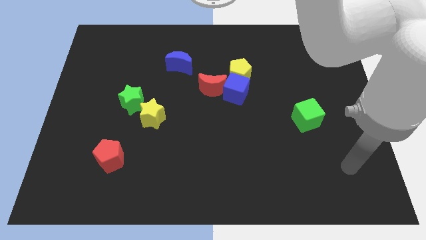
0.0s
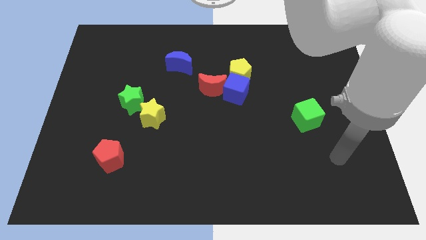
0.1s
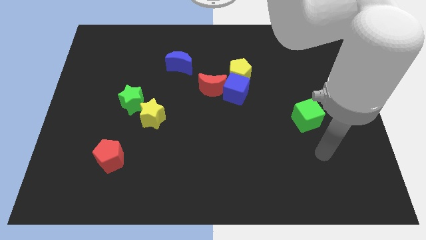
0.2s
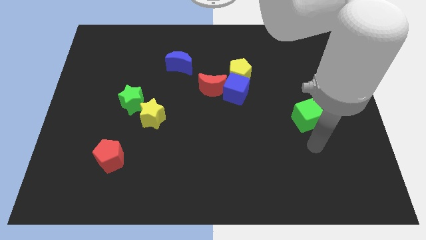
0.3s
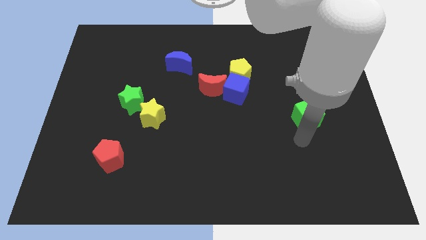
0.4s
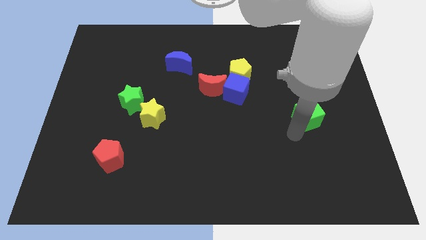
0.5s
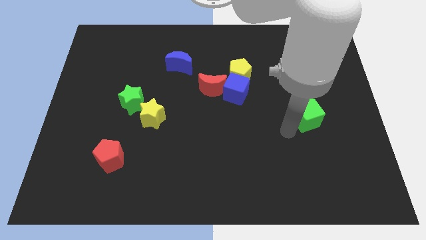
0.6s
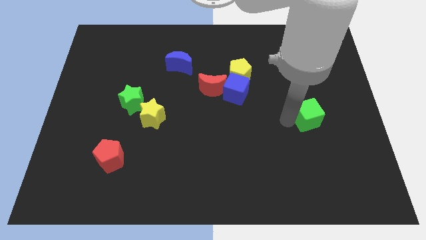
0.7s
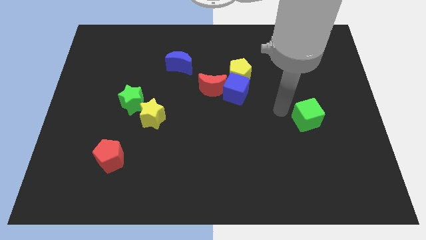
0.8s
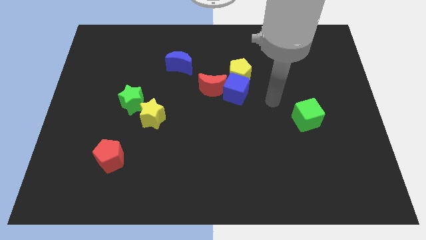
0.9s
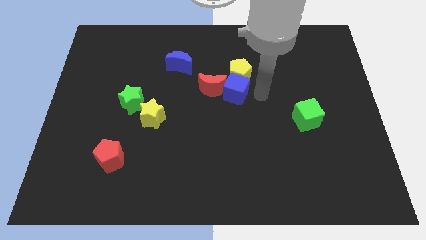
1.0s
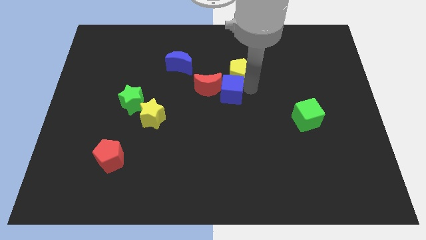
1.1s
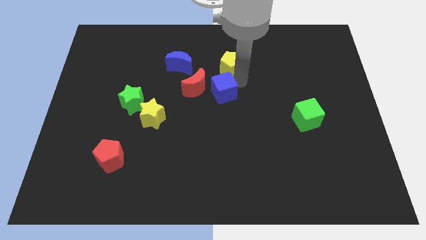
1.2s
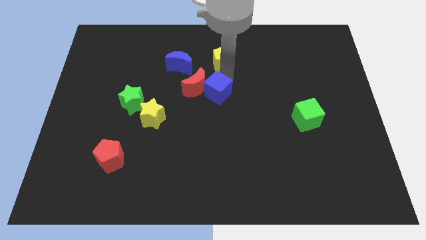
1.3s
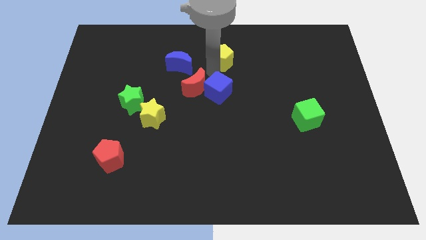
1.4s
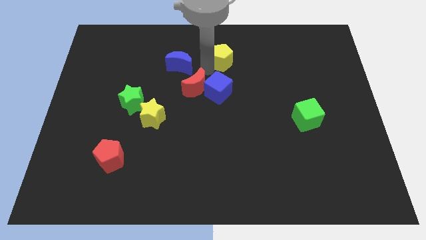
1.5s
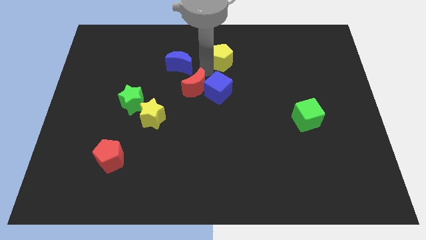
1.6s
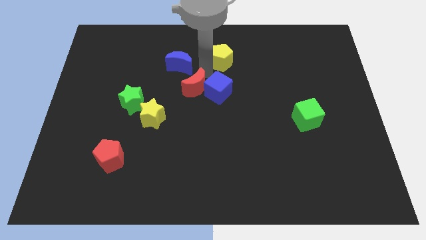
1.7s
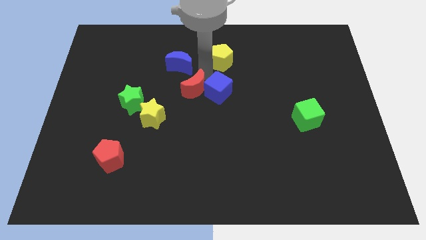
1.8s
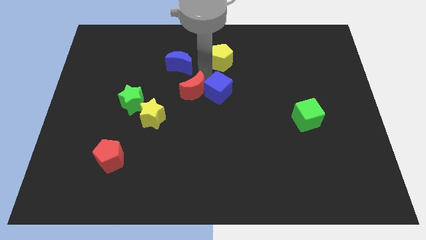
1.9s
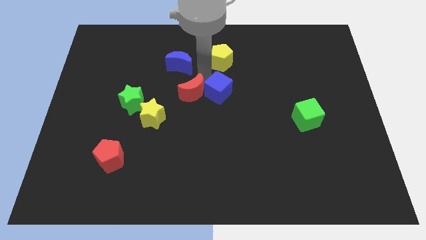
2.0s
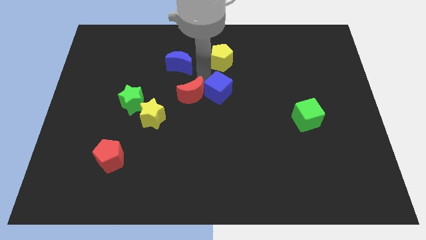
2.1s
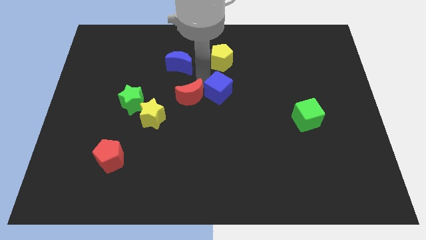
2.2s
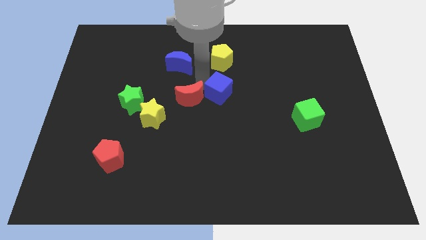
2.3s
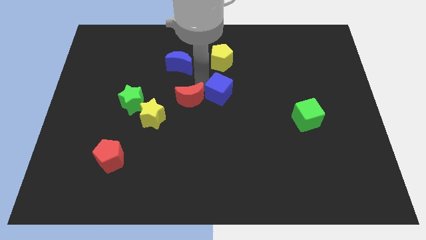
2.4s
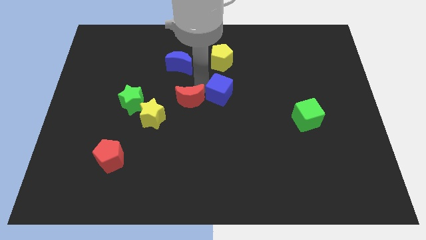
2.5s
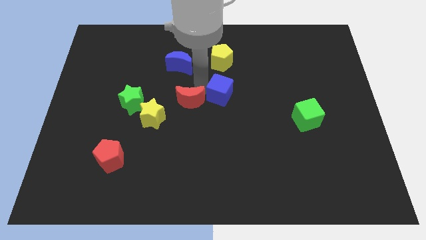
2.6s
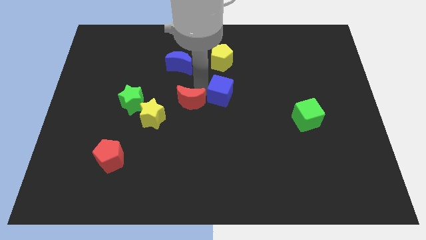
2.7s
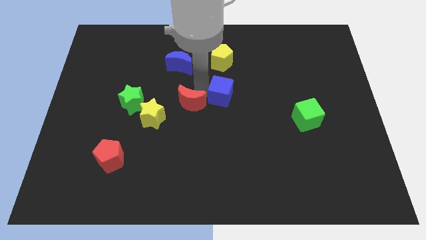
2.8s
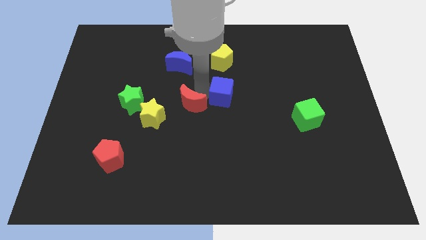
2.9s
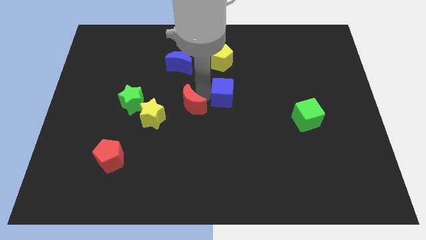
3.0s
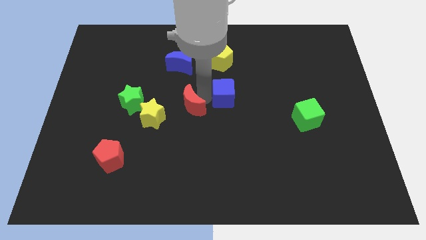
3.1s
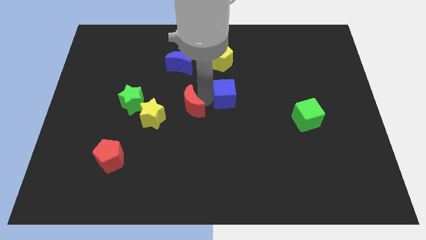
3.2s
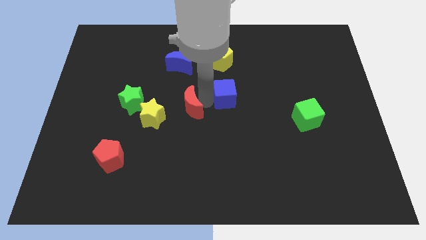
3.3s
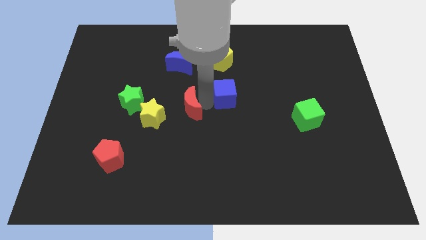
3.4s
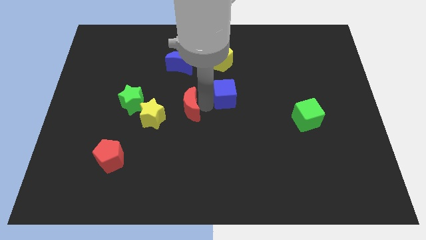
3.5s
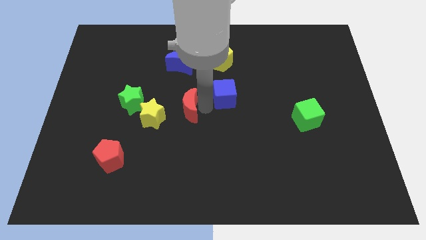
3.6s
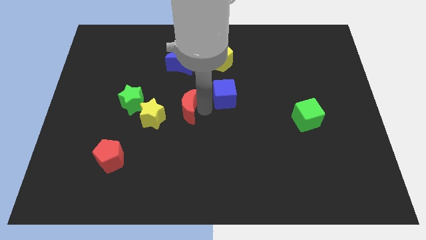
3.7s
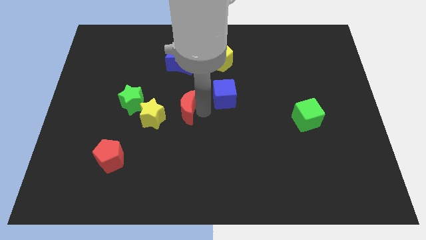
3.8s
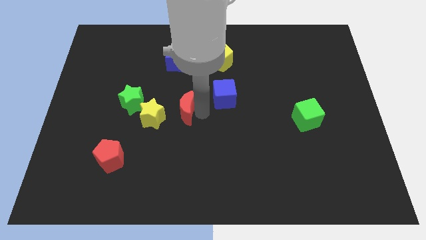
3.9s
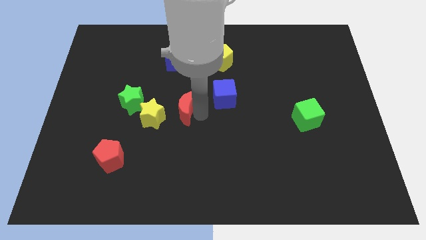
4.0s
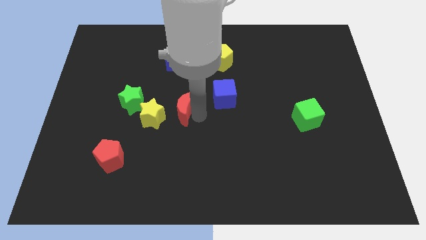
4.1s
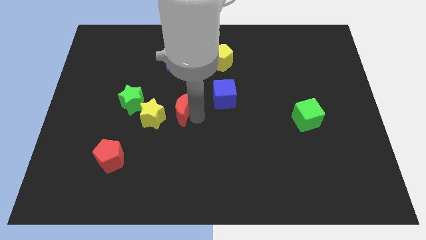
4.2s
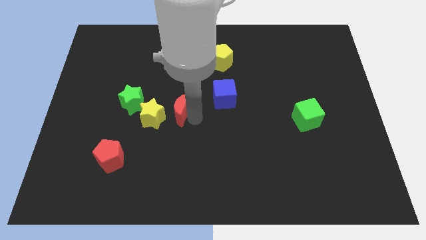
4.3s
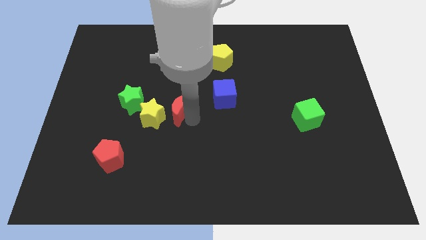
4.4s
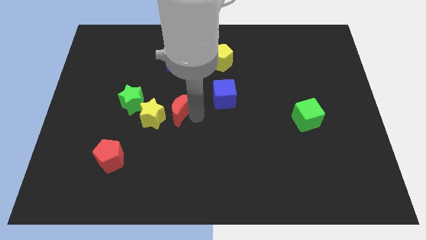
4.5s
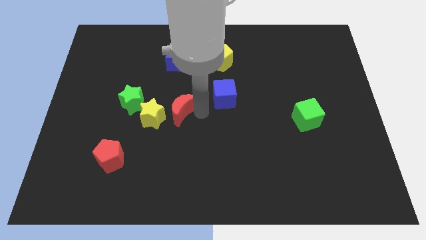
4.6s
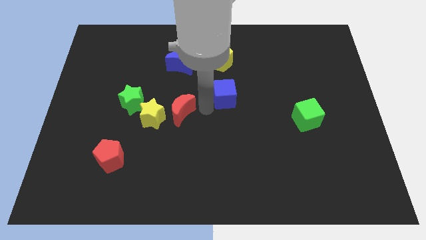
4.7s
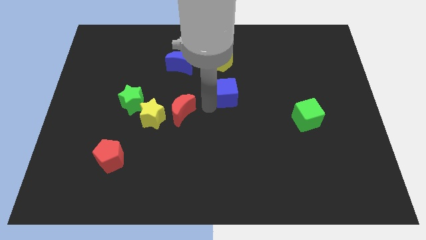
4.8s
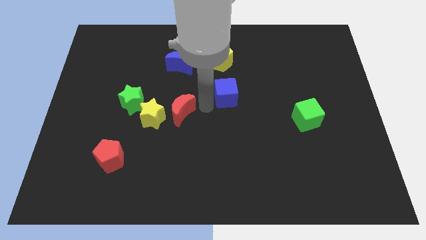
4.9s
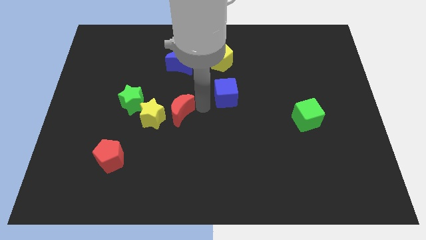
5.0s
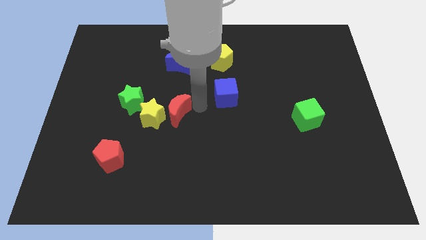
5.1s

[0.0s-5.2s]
put the red moon close to the yellow star

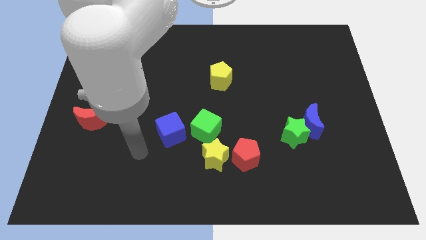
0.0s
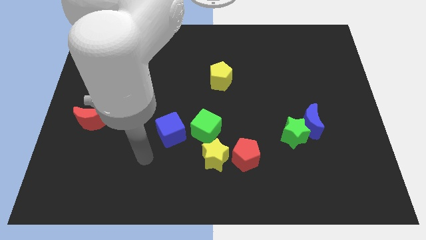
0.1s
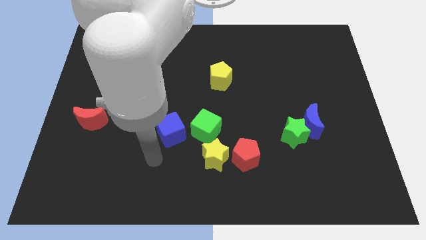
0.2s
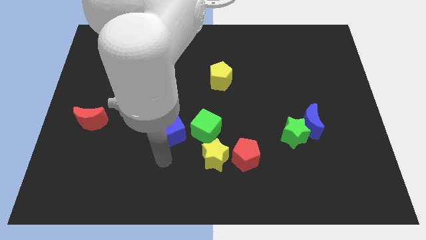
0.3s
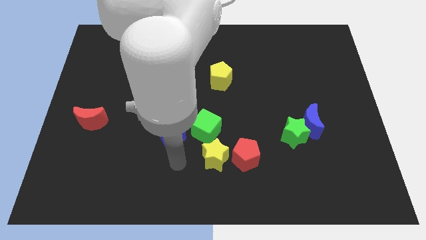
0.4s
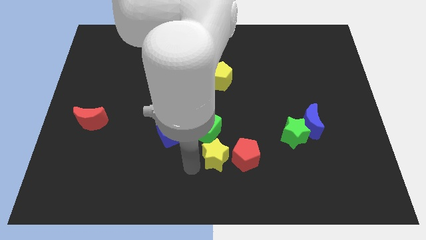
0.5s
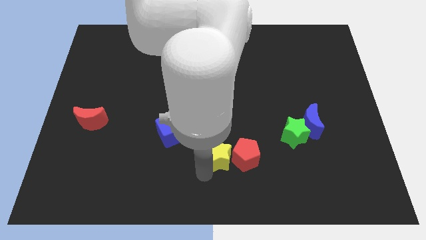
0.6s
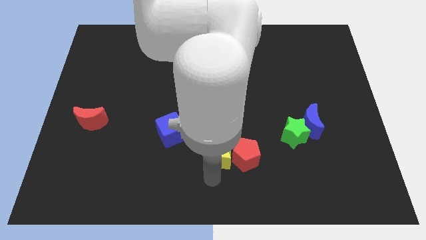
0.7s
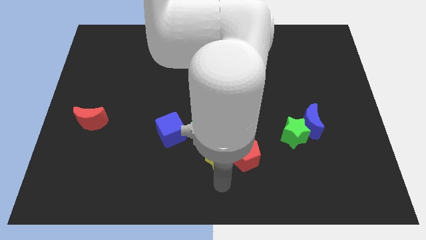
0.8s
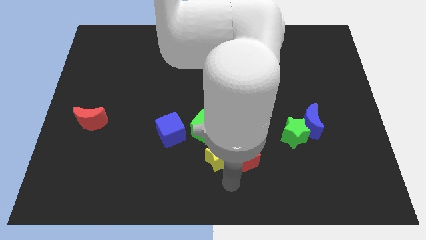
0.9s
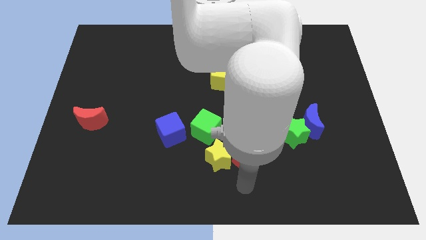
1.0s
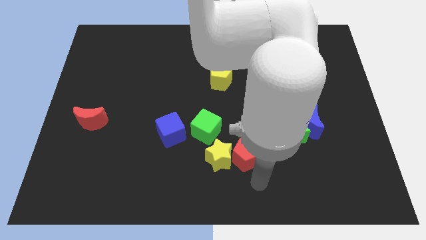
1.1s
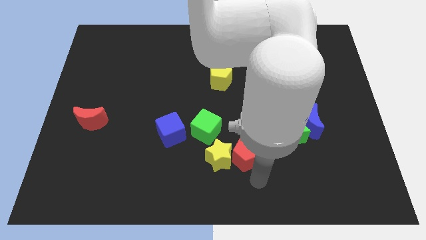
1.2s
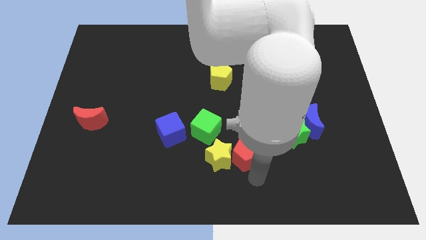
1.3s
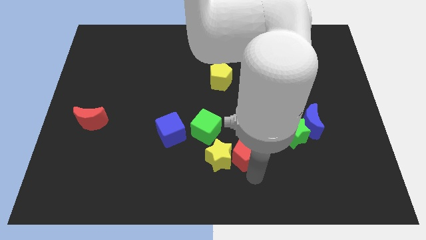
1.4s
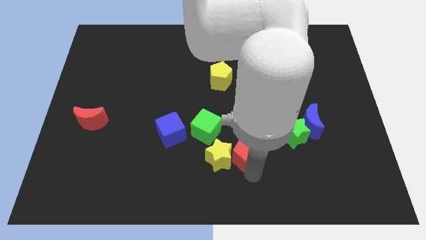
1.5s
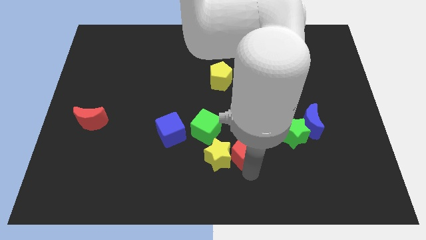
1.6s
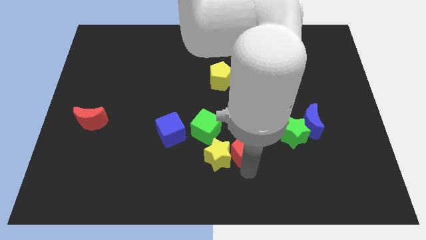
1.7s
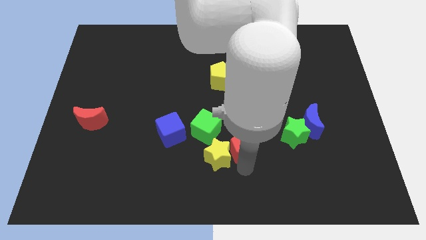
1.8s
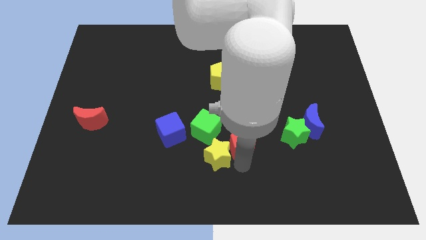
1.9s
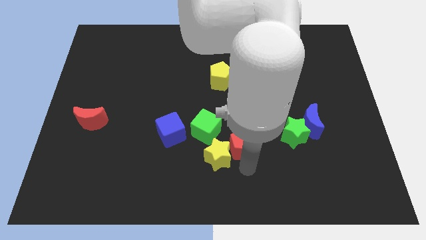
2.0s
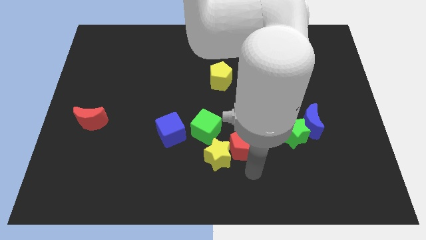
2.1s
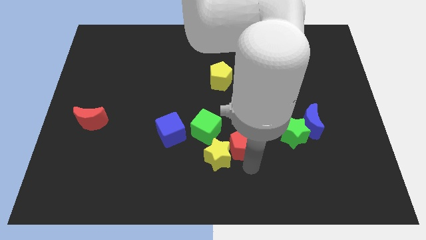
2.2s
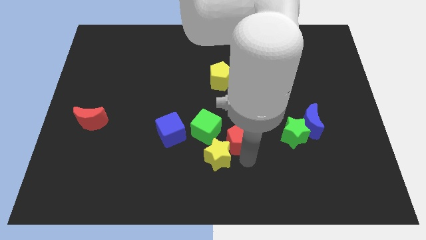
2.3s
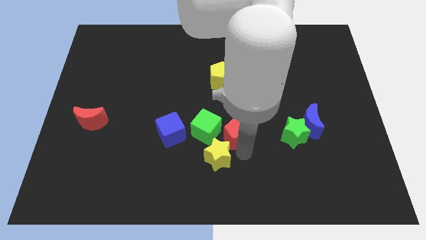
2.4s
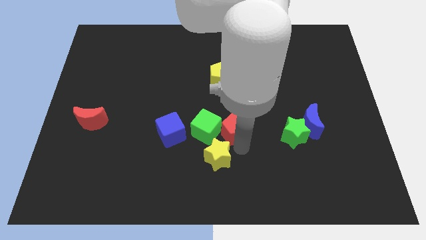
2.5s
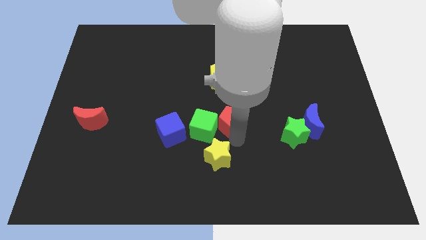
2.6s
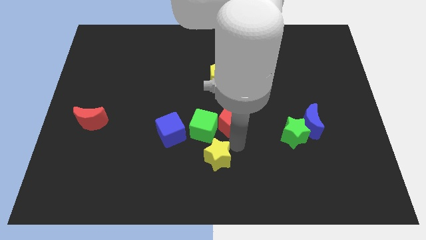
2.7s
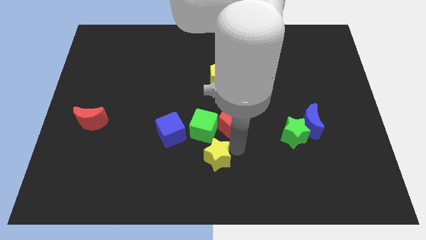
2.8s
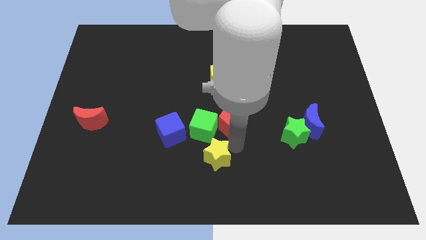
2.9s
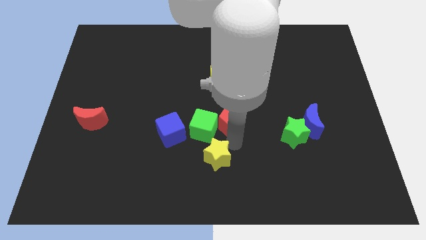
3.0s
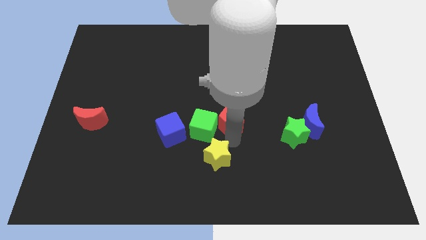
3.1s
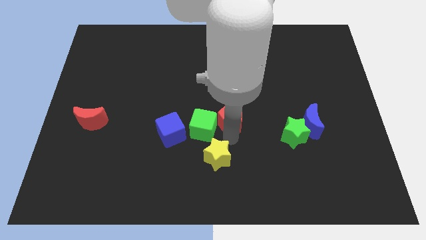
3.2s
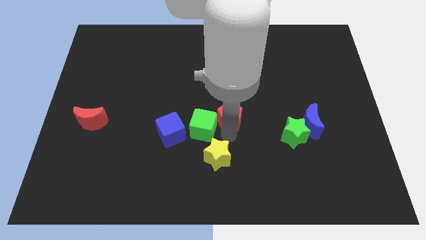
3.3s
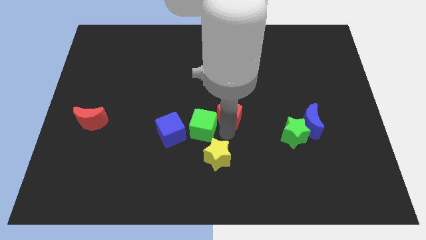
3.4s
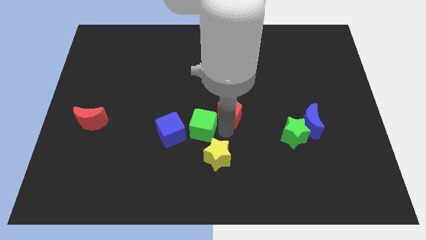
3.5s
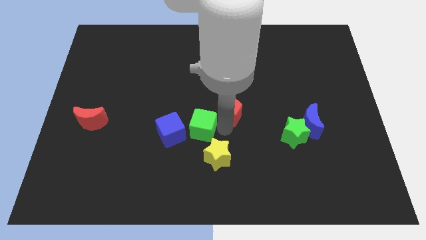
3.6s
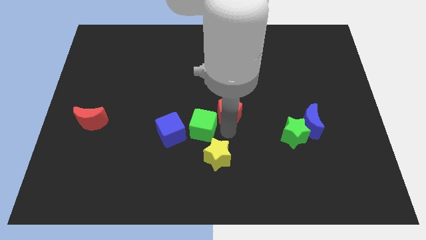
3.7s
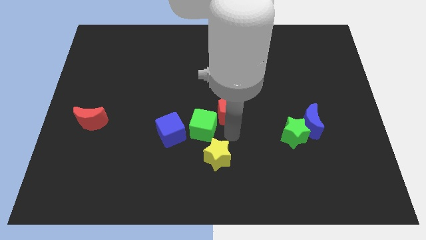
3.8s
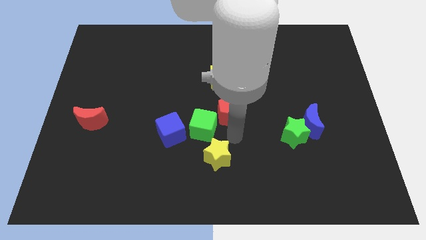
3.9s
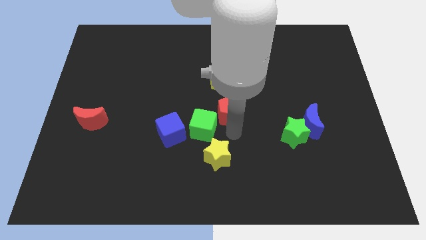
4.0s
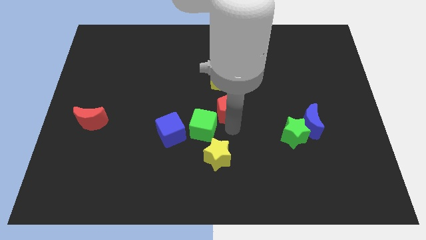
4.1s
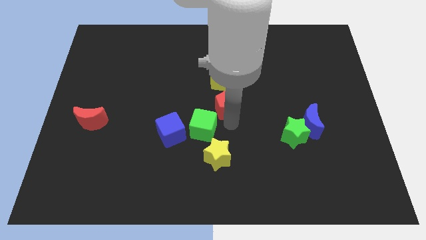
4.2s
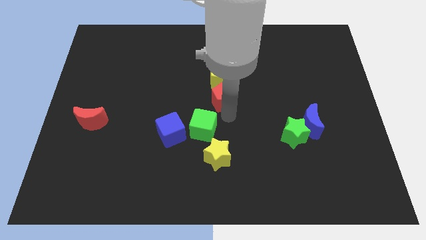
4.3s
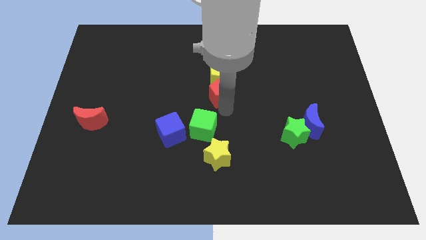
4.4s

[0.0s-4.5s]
put the red pentagon close to the yellow pentagon
